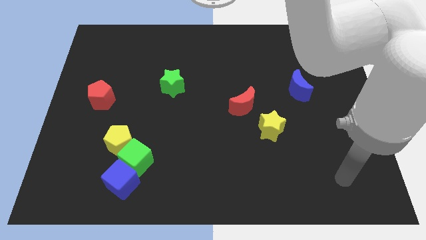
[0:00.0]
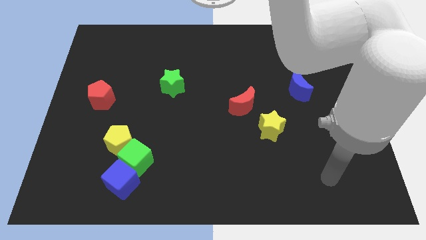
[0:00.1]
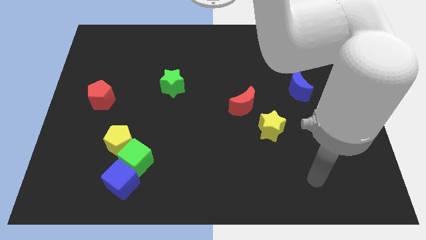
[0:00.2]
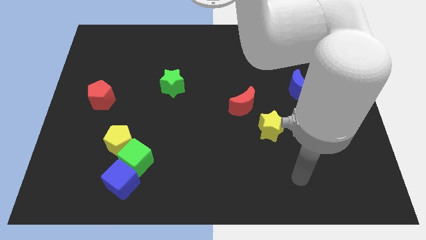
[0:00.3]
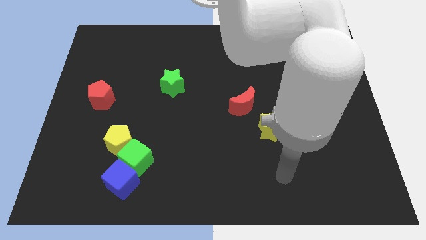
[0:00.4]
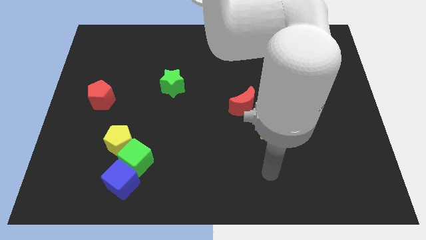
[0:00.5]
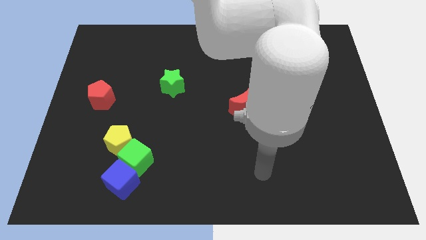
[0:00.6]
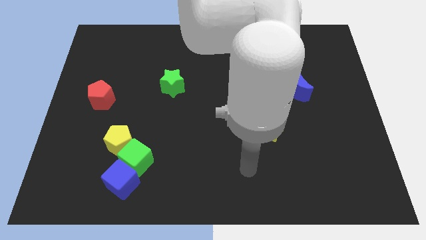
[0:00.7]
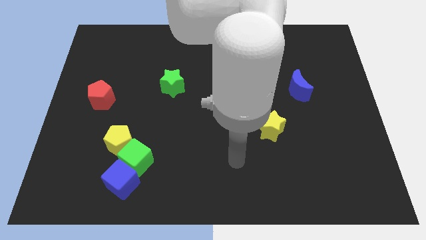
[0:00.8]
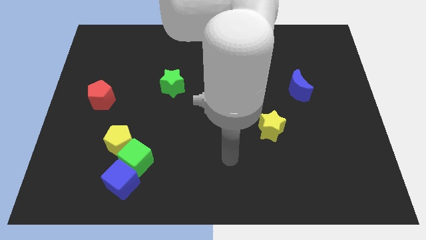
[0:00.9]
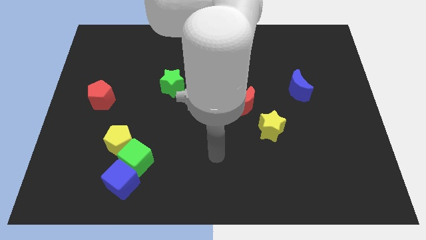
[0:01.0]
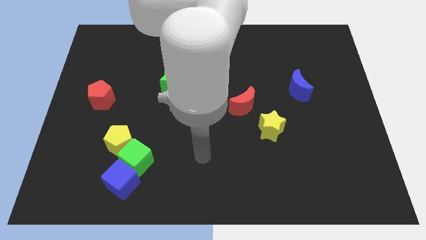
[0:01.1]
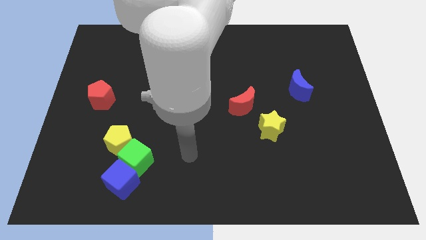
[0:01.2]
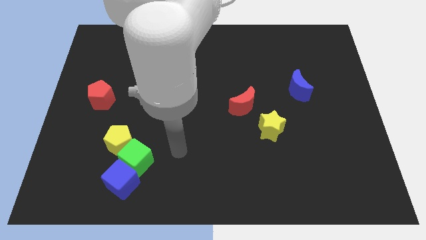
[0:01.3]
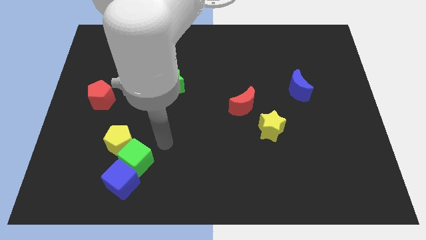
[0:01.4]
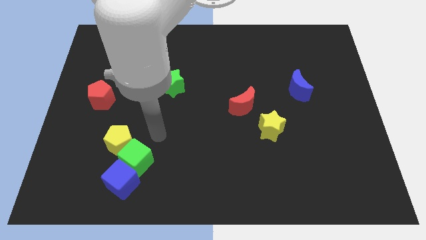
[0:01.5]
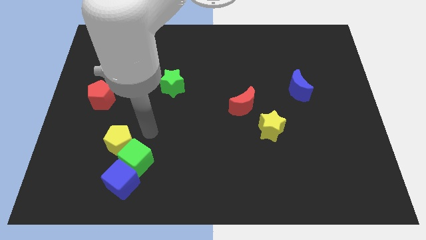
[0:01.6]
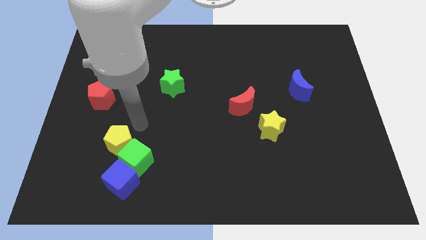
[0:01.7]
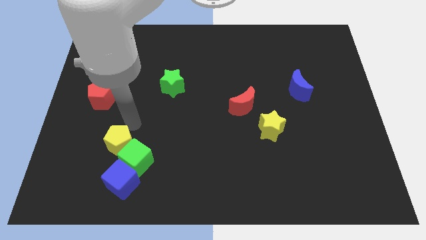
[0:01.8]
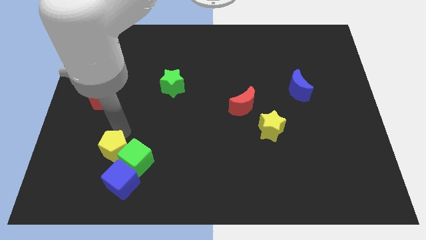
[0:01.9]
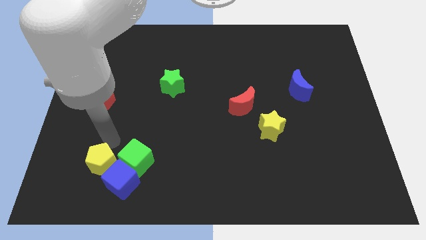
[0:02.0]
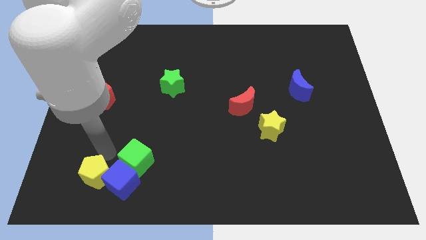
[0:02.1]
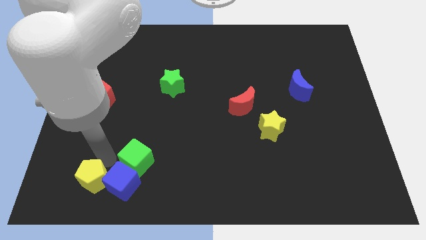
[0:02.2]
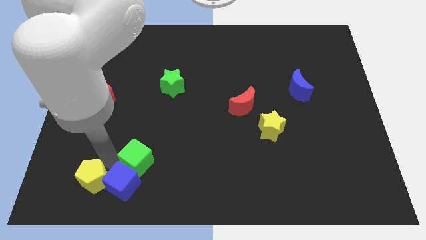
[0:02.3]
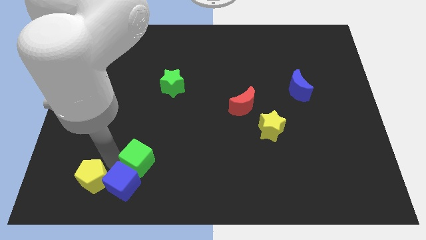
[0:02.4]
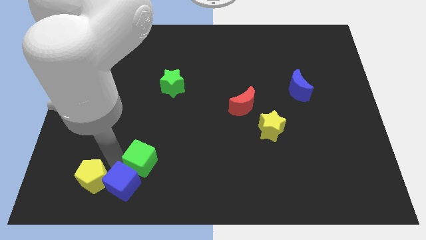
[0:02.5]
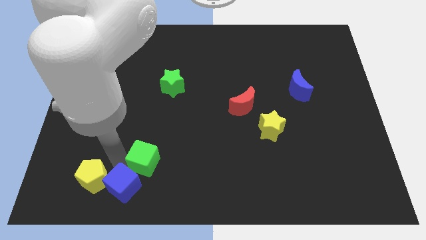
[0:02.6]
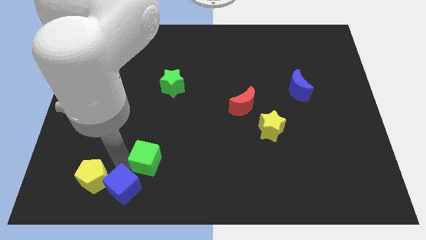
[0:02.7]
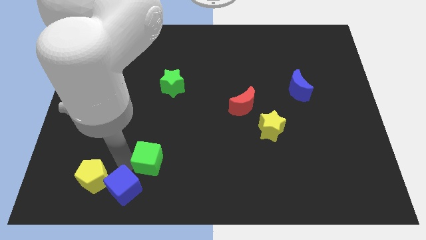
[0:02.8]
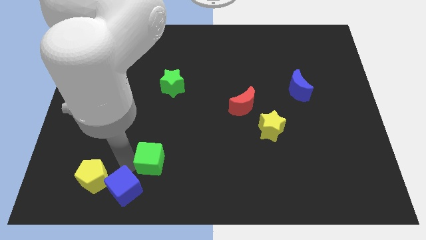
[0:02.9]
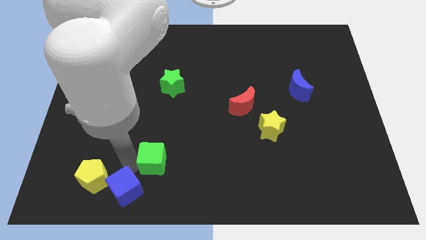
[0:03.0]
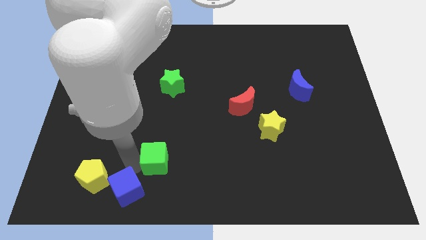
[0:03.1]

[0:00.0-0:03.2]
move the green cube away from the blue cube and yellow pentagon

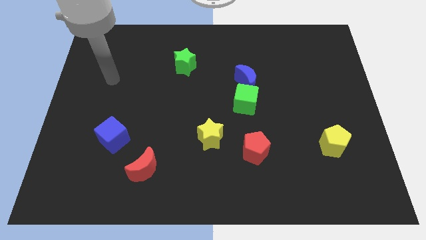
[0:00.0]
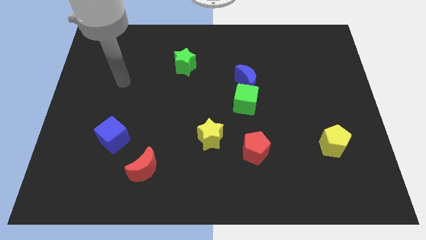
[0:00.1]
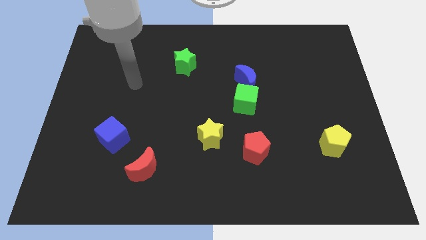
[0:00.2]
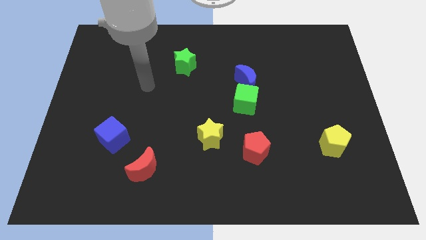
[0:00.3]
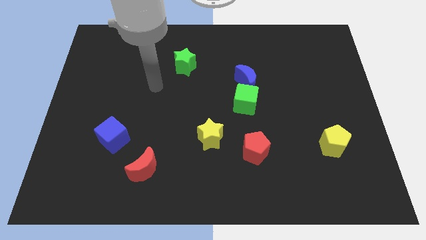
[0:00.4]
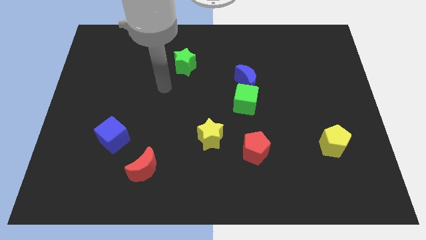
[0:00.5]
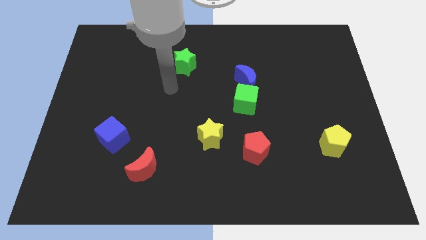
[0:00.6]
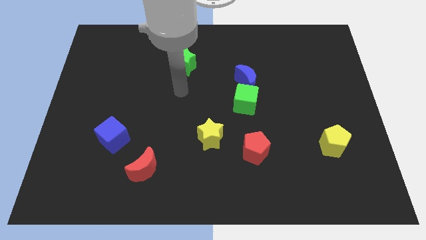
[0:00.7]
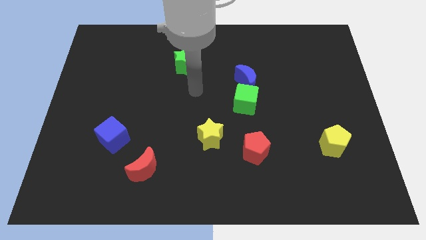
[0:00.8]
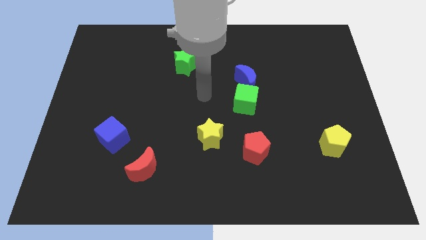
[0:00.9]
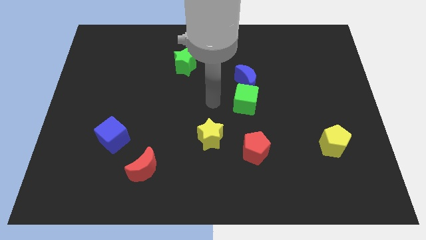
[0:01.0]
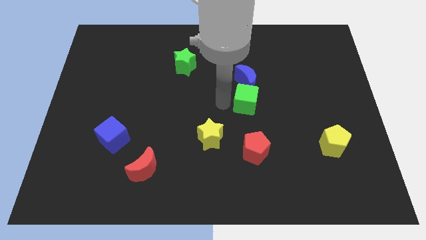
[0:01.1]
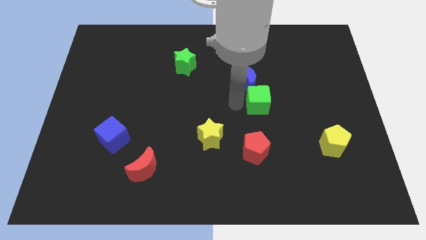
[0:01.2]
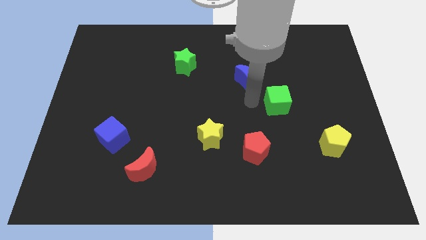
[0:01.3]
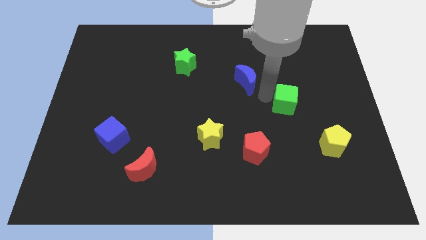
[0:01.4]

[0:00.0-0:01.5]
separate the blue moon from the green cube

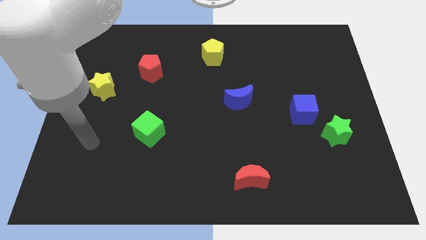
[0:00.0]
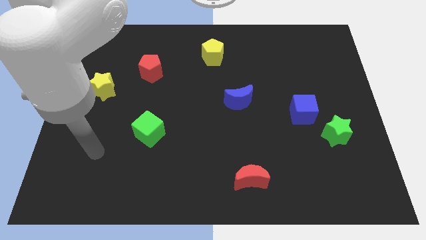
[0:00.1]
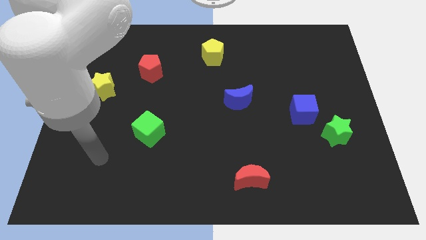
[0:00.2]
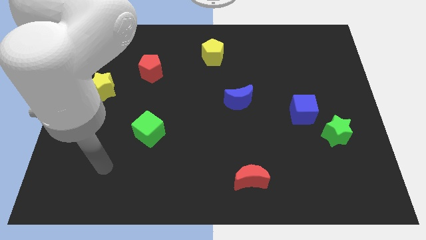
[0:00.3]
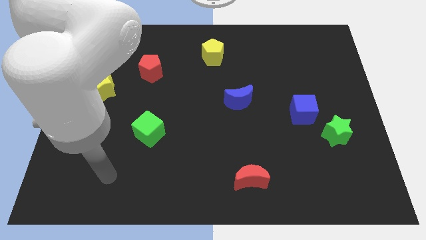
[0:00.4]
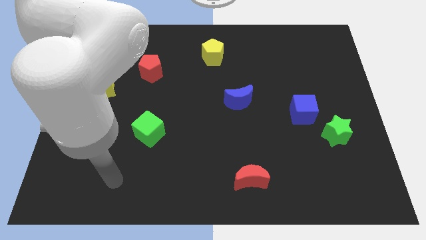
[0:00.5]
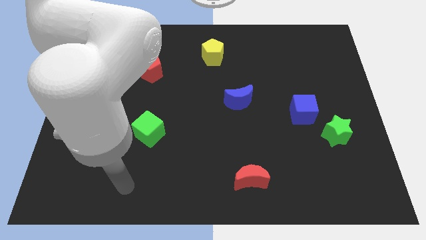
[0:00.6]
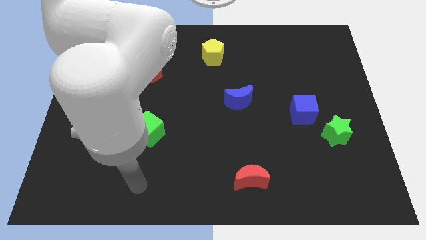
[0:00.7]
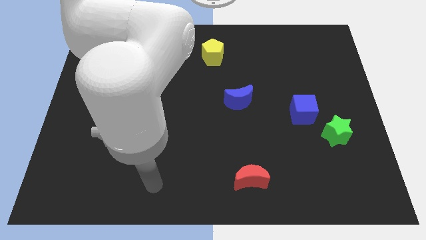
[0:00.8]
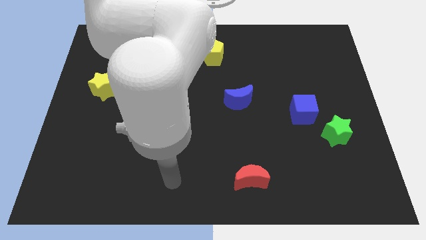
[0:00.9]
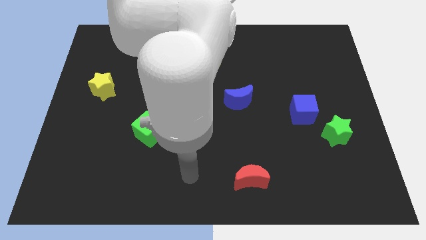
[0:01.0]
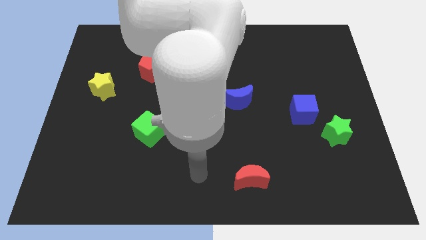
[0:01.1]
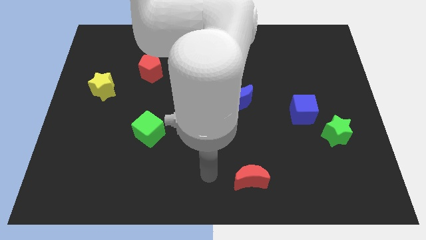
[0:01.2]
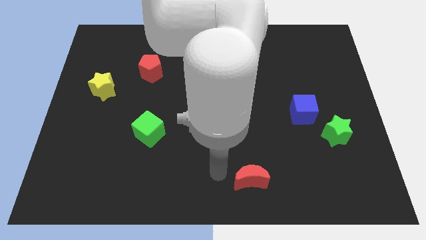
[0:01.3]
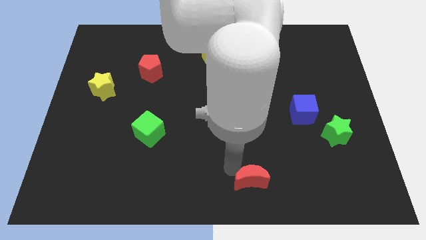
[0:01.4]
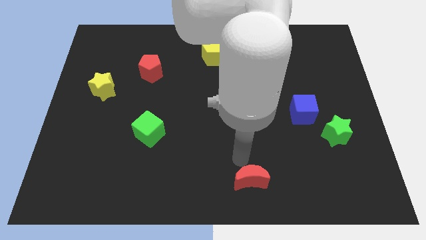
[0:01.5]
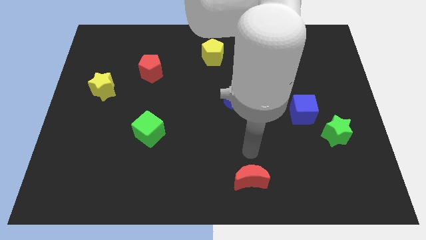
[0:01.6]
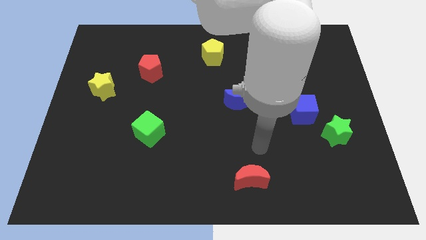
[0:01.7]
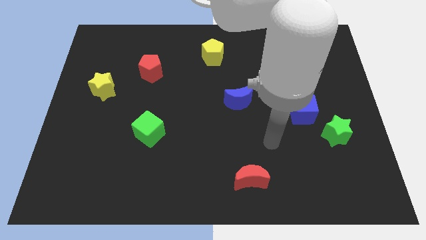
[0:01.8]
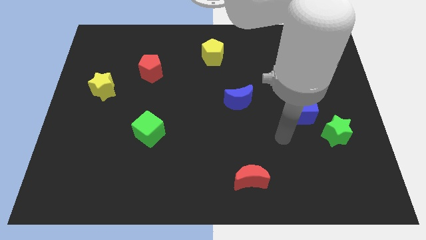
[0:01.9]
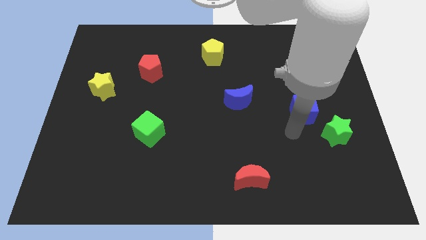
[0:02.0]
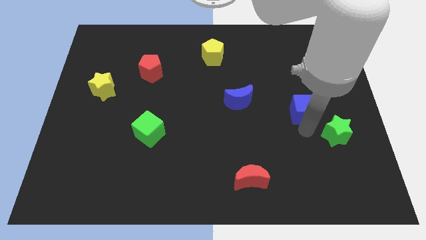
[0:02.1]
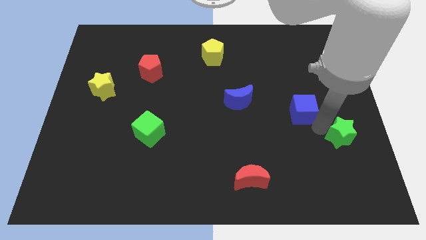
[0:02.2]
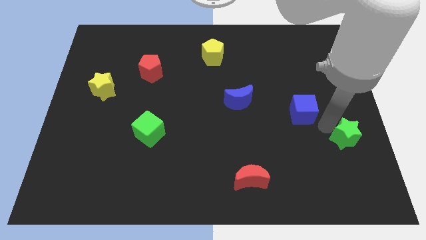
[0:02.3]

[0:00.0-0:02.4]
move the blue cube away from the green star

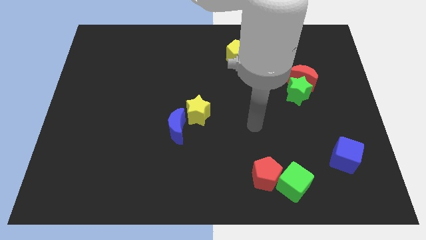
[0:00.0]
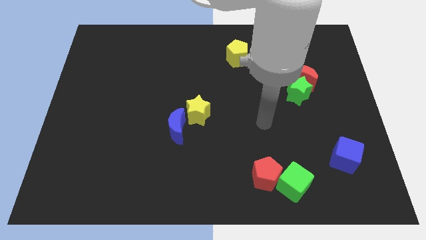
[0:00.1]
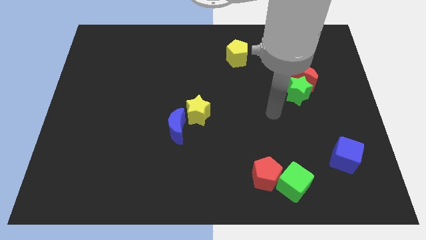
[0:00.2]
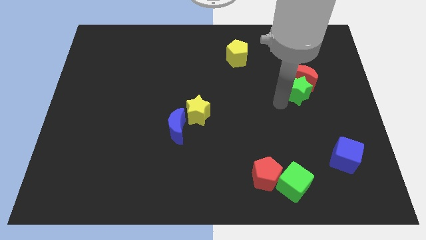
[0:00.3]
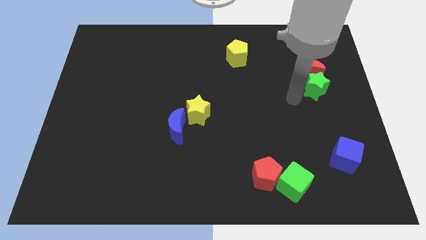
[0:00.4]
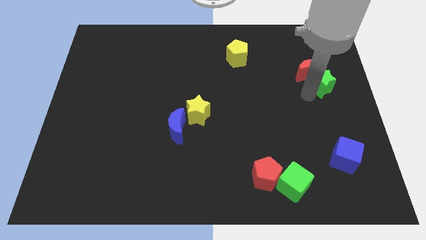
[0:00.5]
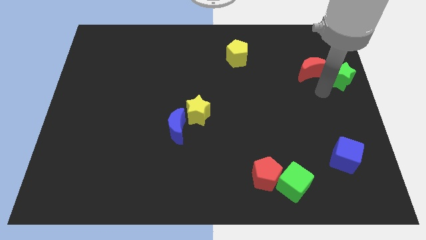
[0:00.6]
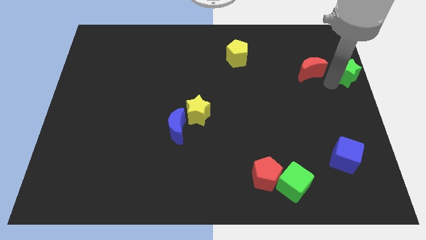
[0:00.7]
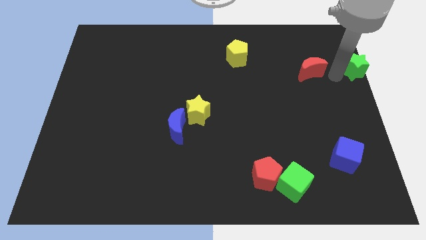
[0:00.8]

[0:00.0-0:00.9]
move the red moon away from the green star

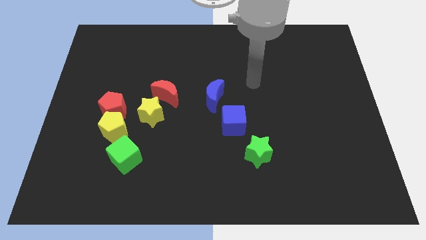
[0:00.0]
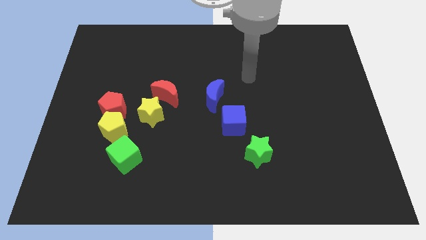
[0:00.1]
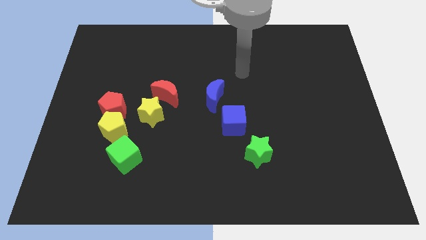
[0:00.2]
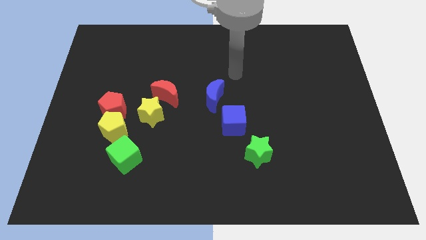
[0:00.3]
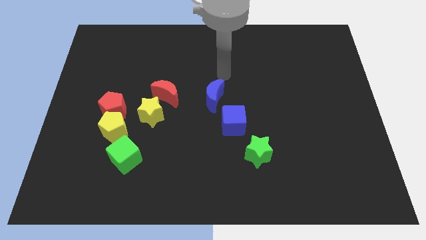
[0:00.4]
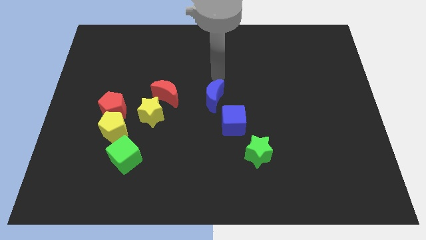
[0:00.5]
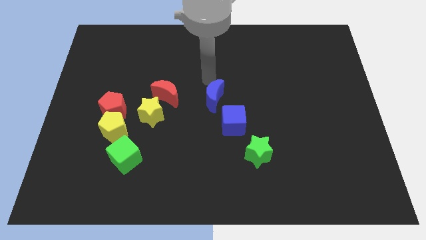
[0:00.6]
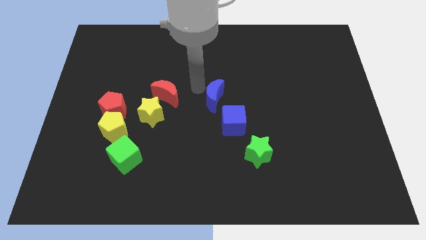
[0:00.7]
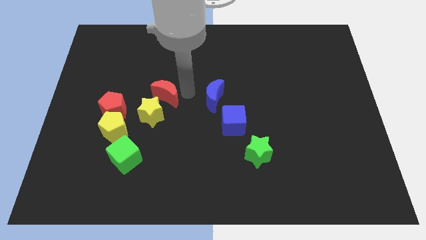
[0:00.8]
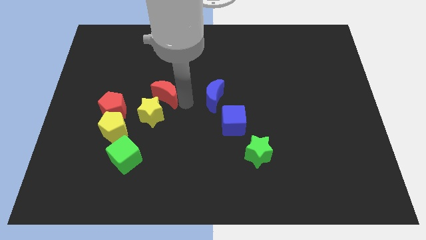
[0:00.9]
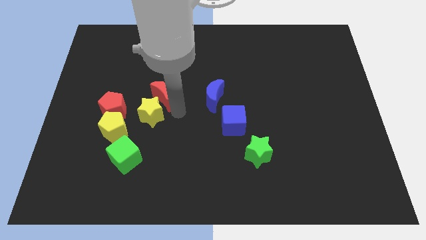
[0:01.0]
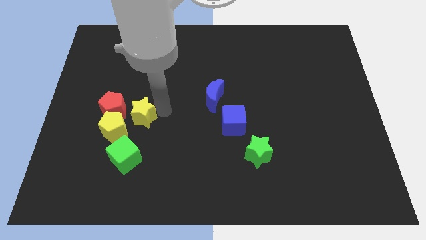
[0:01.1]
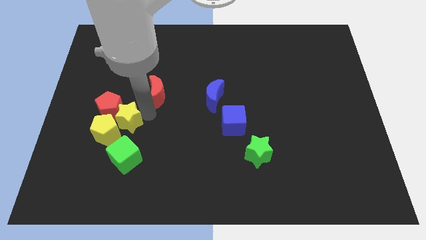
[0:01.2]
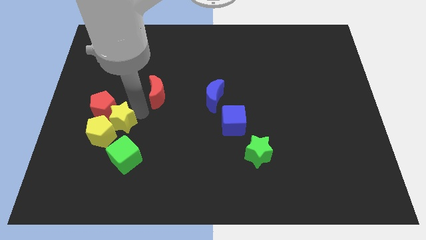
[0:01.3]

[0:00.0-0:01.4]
separate the red moon from the yellow star
